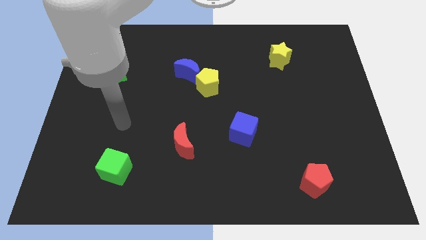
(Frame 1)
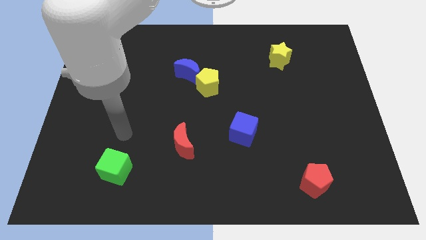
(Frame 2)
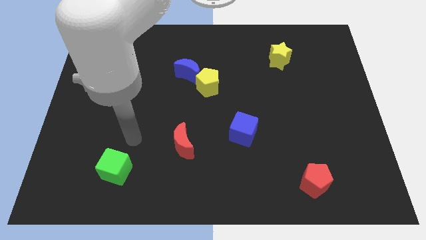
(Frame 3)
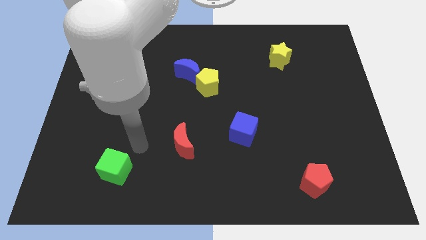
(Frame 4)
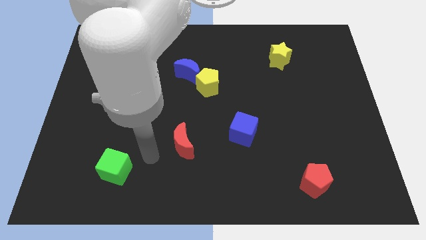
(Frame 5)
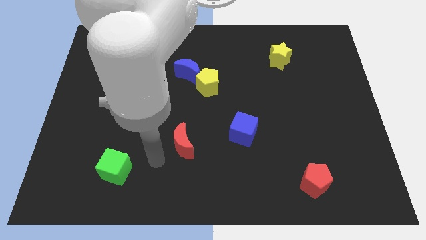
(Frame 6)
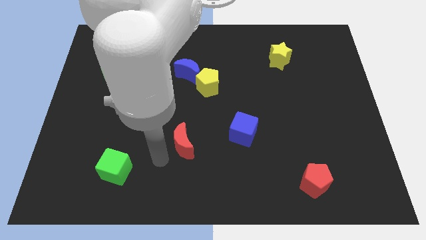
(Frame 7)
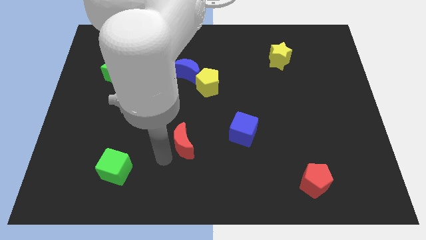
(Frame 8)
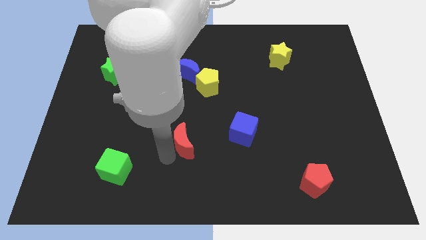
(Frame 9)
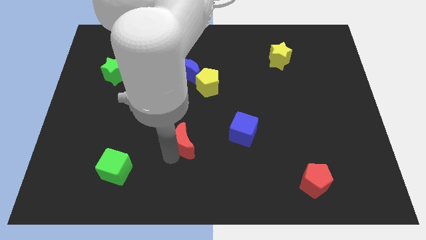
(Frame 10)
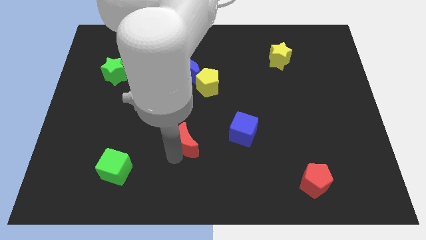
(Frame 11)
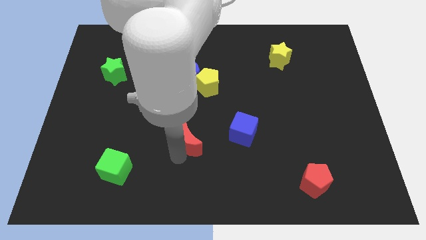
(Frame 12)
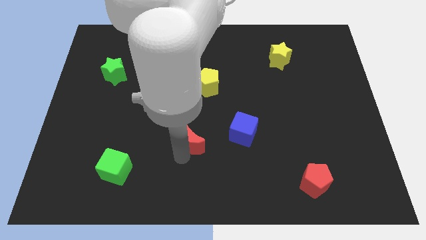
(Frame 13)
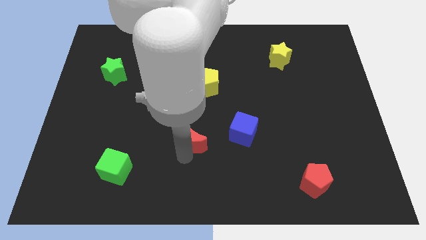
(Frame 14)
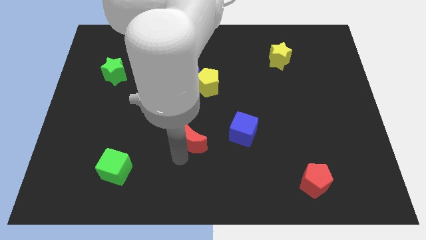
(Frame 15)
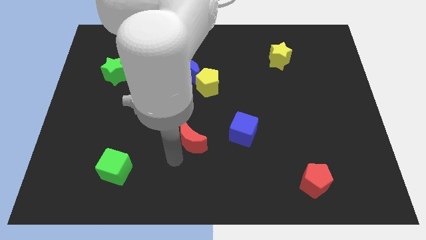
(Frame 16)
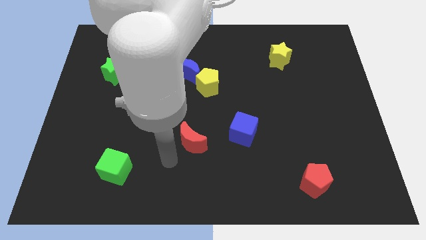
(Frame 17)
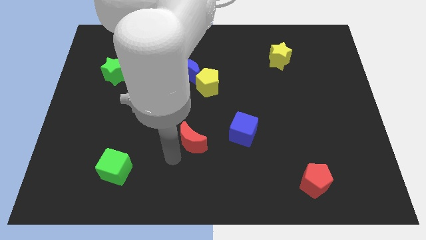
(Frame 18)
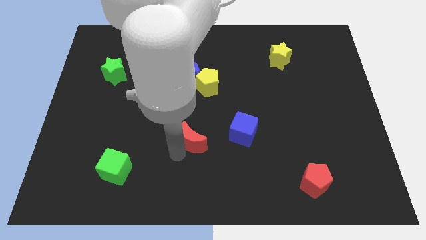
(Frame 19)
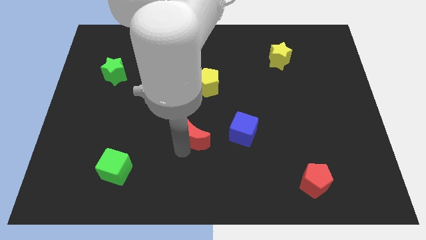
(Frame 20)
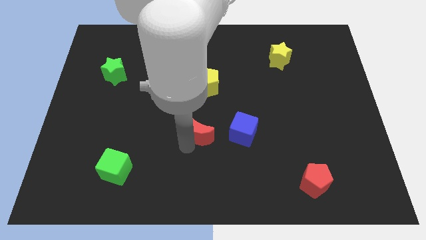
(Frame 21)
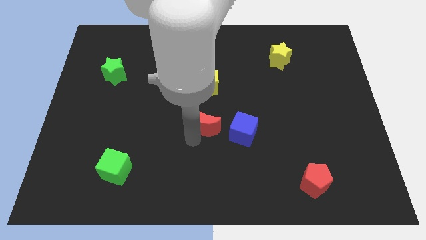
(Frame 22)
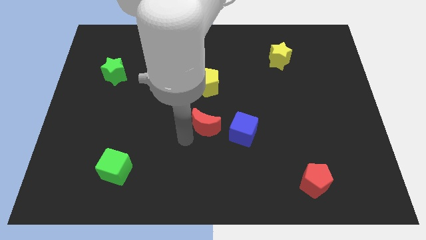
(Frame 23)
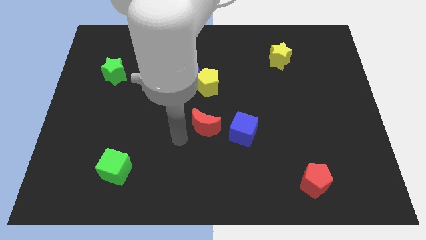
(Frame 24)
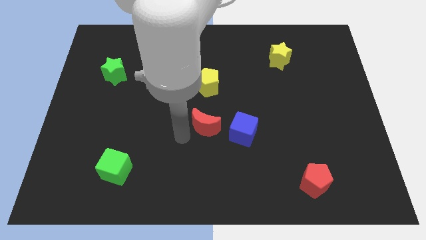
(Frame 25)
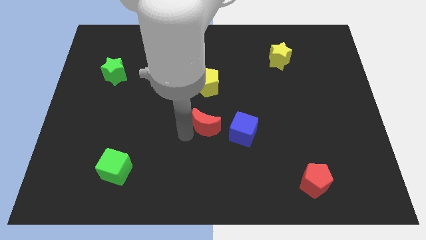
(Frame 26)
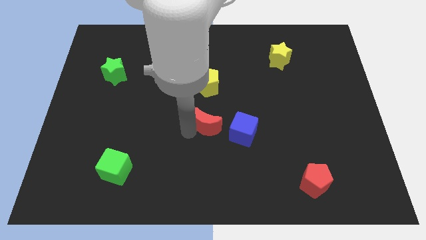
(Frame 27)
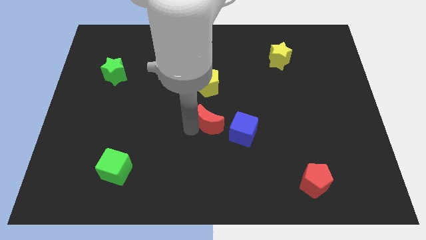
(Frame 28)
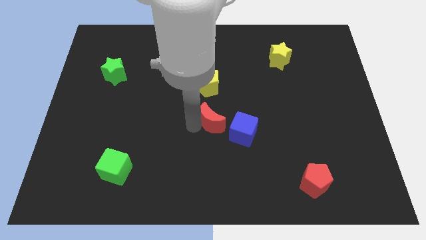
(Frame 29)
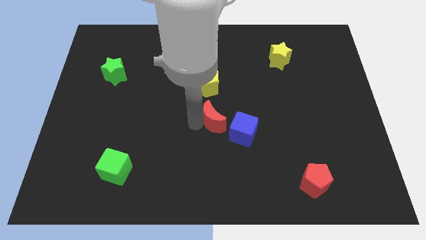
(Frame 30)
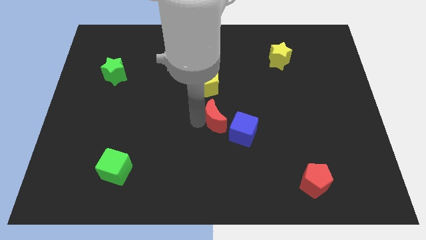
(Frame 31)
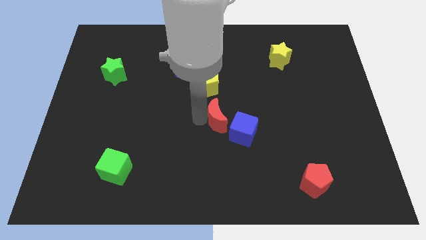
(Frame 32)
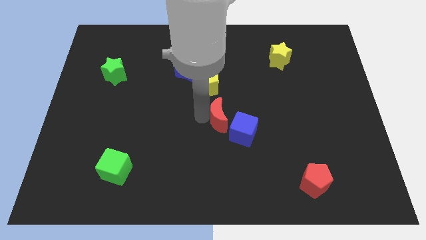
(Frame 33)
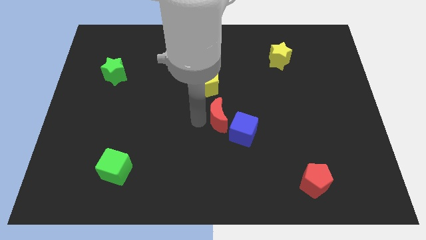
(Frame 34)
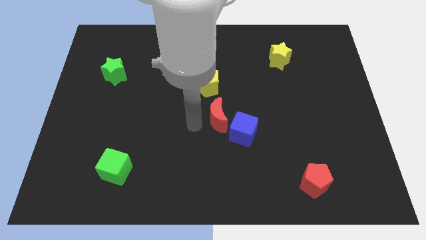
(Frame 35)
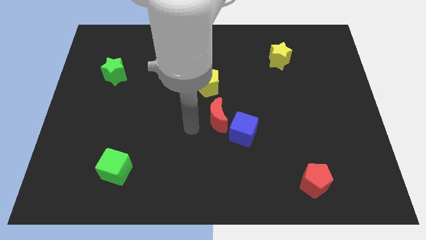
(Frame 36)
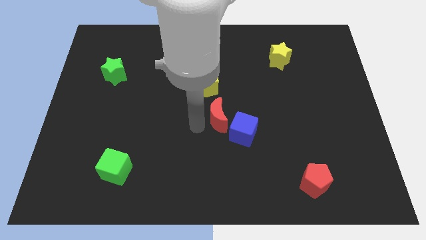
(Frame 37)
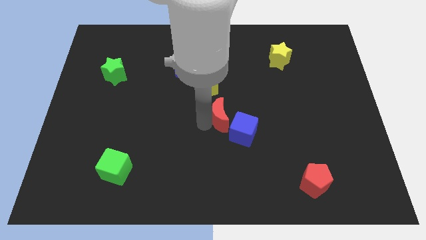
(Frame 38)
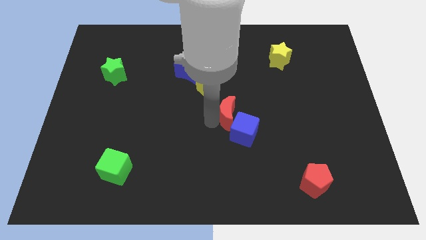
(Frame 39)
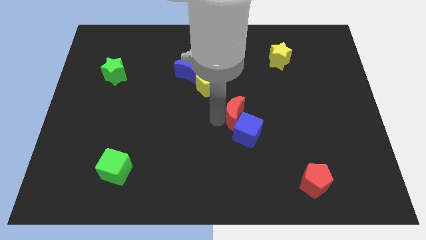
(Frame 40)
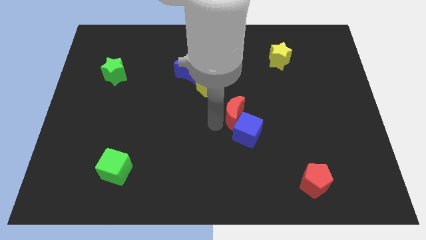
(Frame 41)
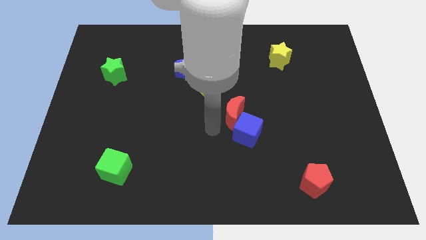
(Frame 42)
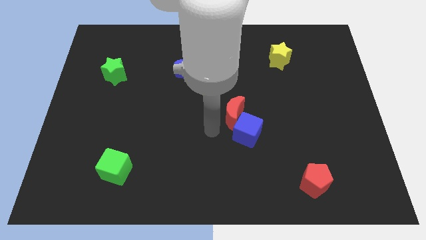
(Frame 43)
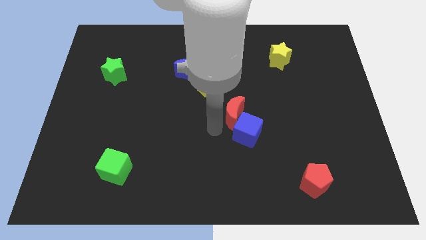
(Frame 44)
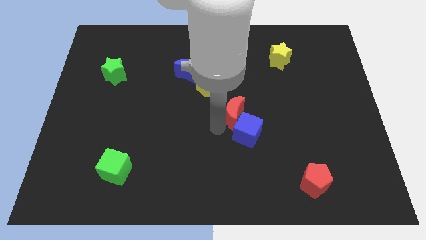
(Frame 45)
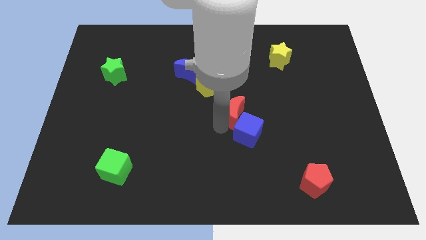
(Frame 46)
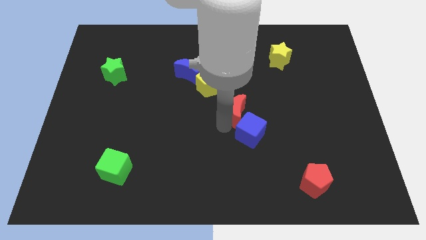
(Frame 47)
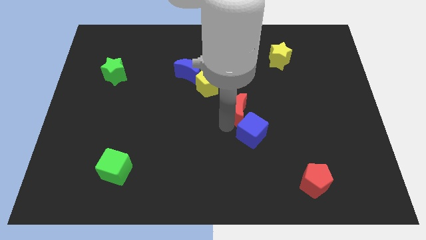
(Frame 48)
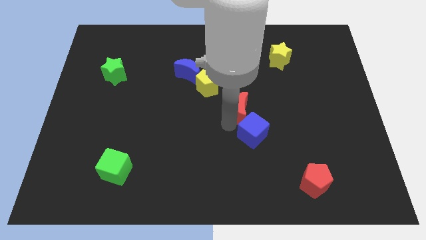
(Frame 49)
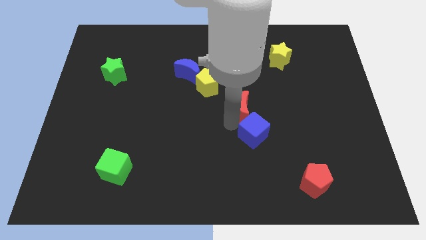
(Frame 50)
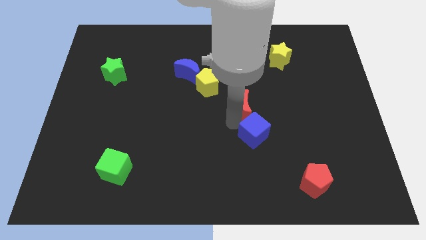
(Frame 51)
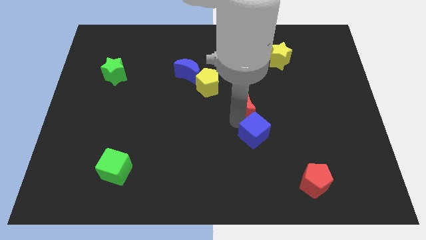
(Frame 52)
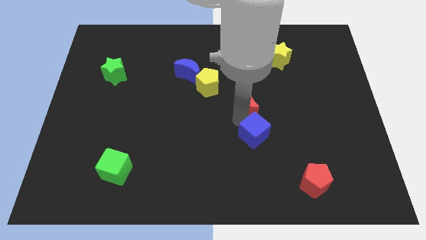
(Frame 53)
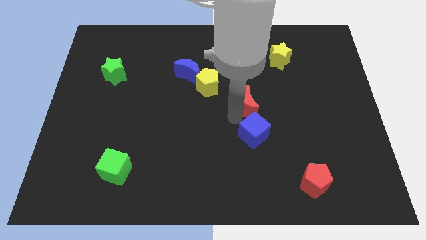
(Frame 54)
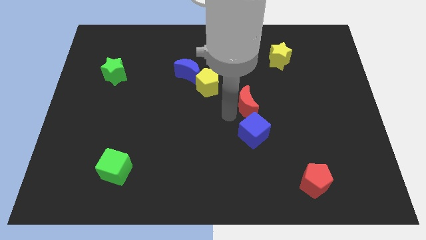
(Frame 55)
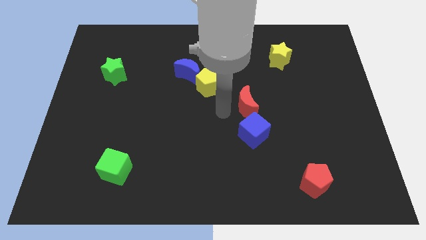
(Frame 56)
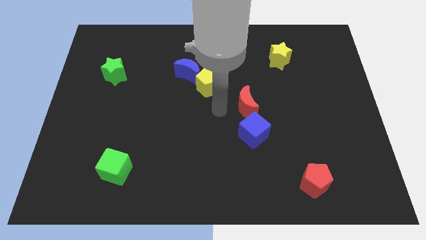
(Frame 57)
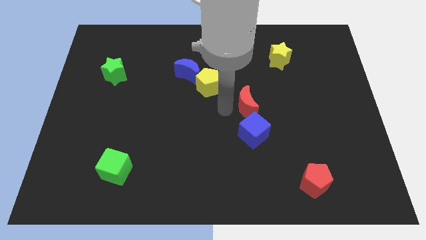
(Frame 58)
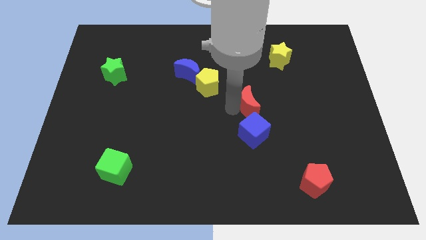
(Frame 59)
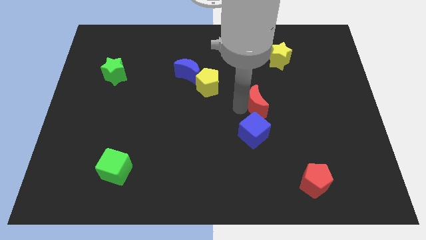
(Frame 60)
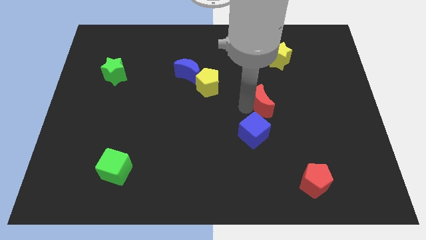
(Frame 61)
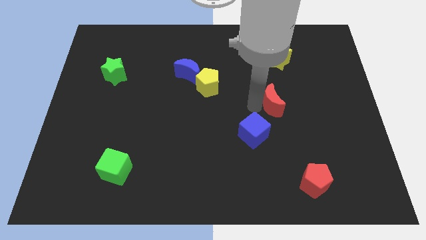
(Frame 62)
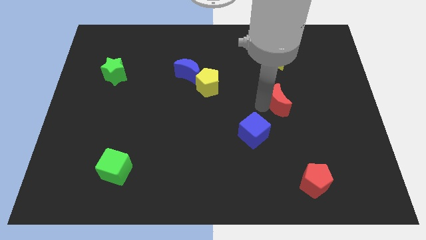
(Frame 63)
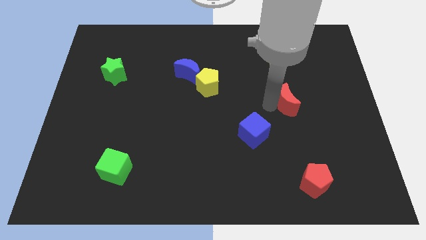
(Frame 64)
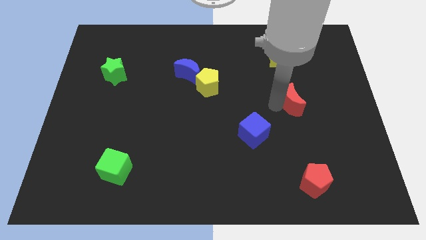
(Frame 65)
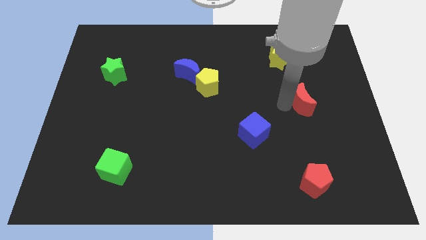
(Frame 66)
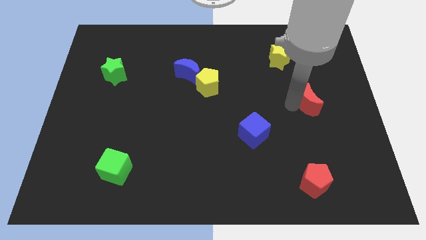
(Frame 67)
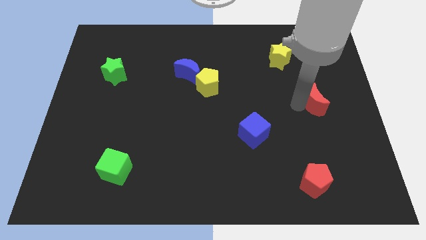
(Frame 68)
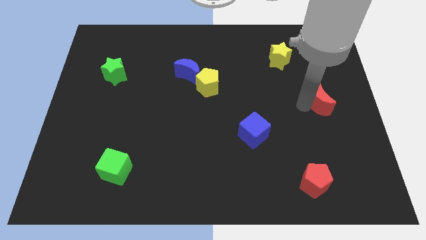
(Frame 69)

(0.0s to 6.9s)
put the red moon to the right side
